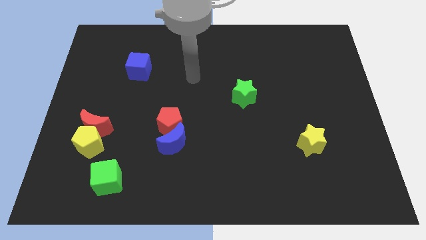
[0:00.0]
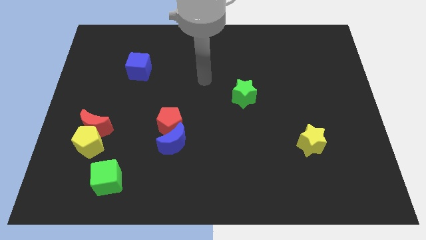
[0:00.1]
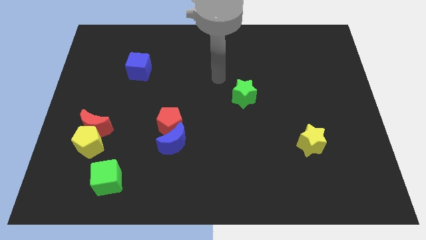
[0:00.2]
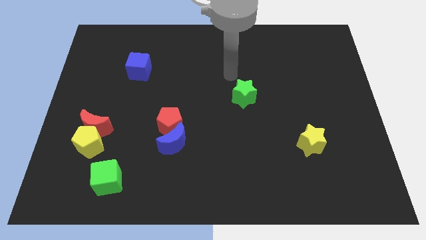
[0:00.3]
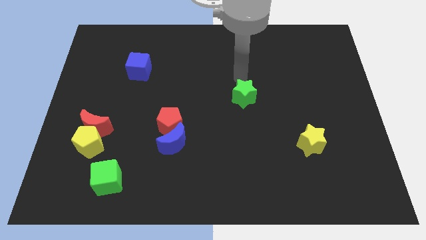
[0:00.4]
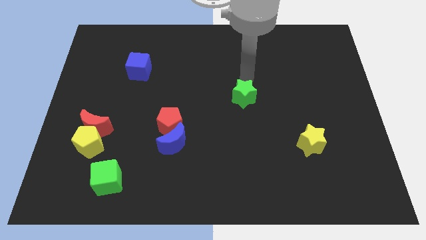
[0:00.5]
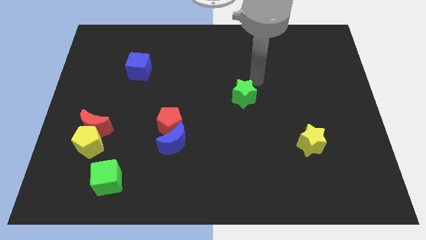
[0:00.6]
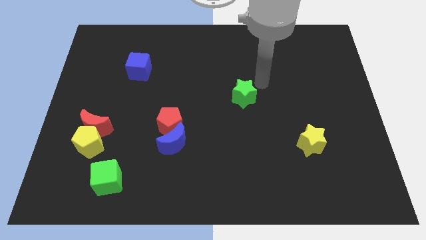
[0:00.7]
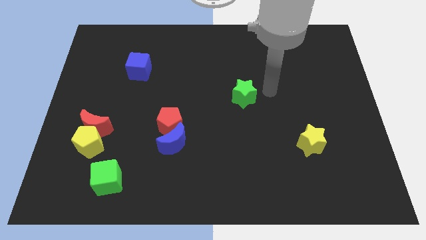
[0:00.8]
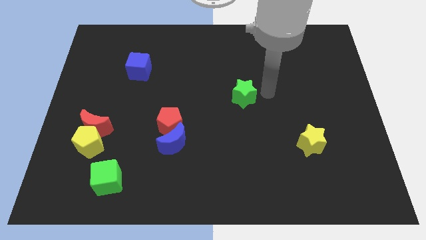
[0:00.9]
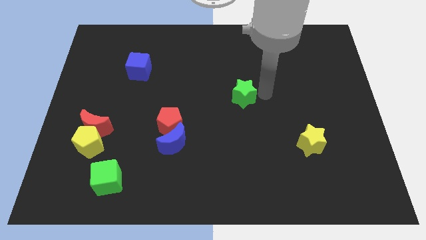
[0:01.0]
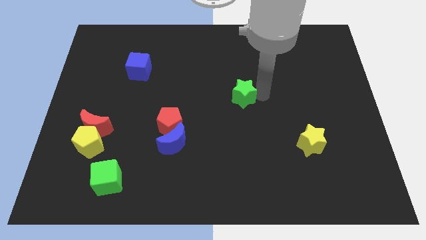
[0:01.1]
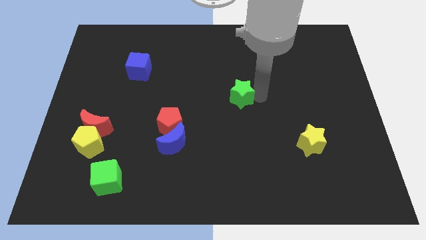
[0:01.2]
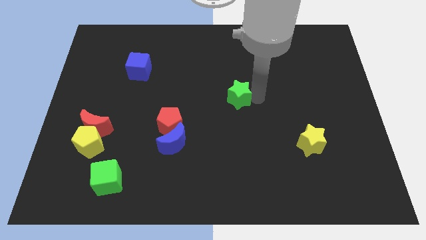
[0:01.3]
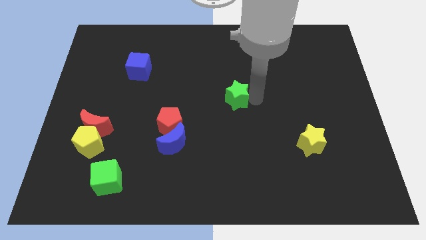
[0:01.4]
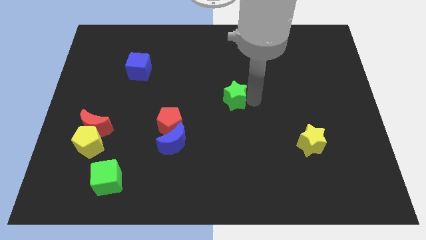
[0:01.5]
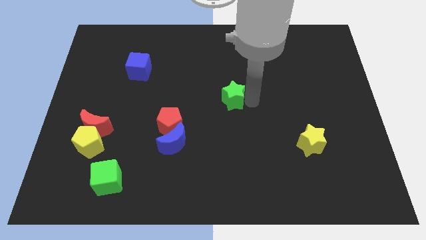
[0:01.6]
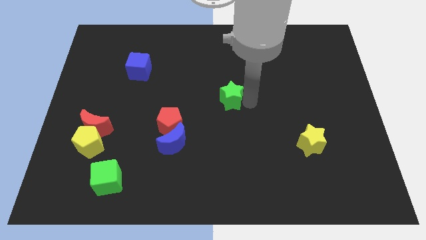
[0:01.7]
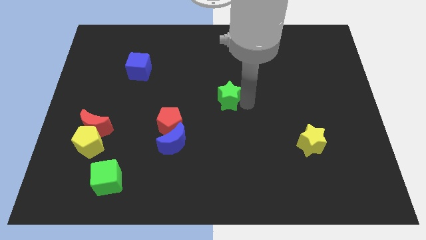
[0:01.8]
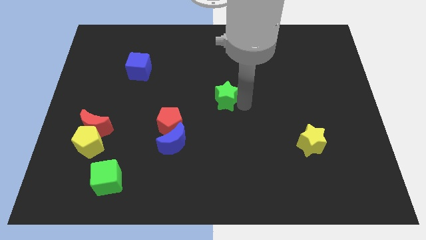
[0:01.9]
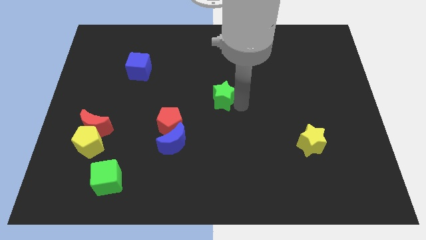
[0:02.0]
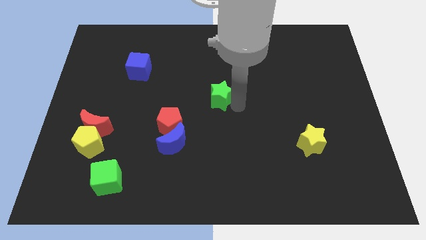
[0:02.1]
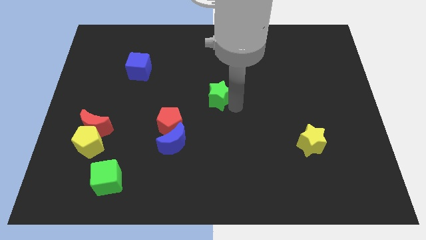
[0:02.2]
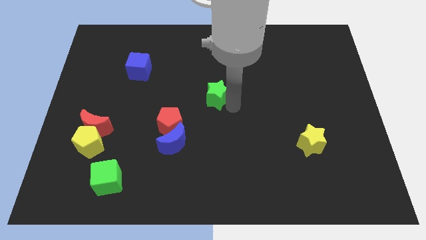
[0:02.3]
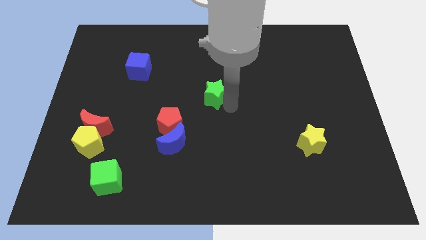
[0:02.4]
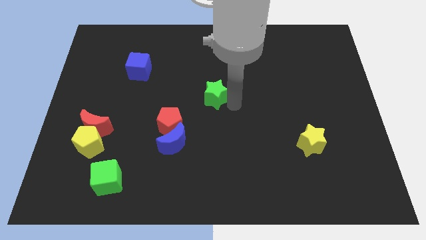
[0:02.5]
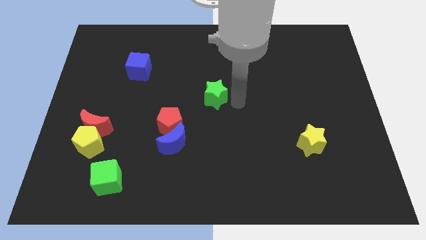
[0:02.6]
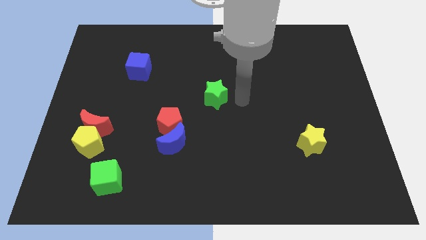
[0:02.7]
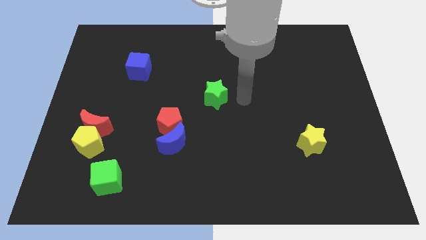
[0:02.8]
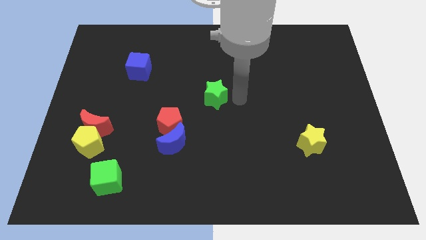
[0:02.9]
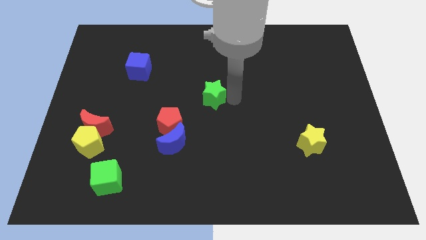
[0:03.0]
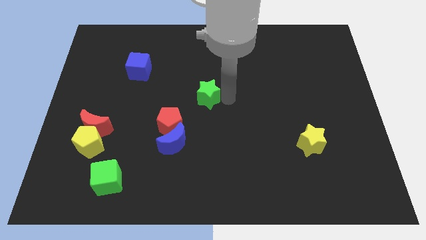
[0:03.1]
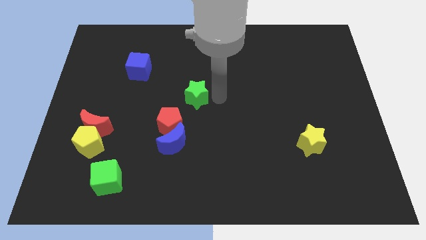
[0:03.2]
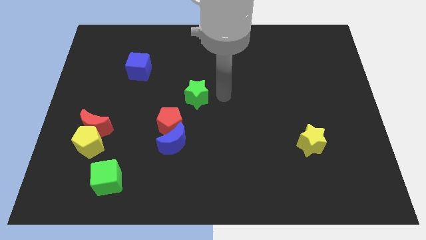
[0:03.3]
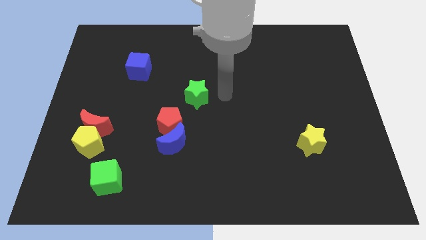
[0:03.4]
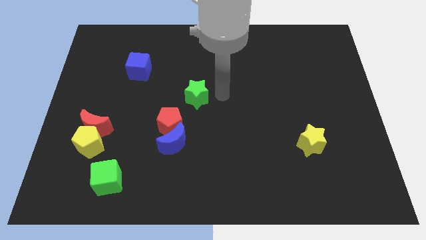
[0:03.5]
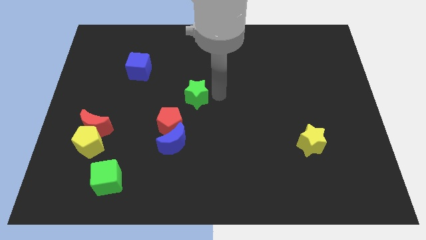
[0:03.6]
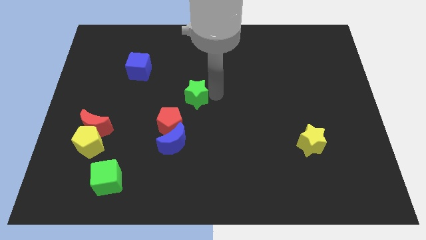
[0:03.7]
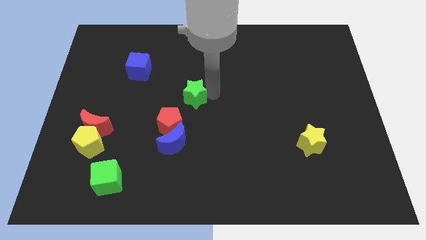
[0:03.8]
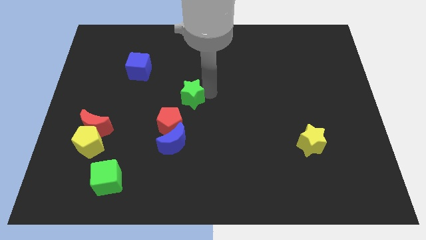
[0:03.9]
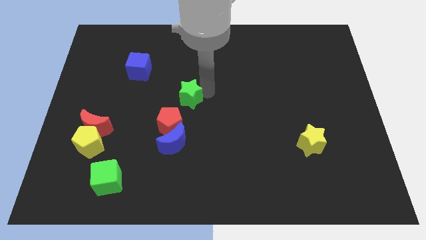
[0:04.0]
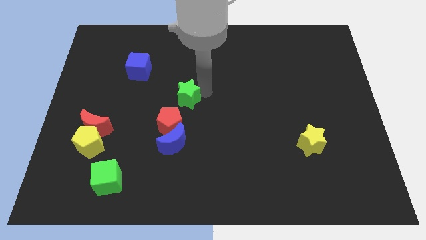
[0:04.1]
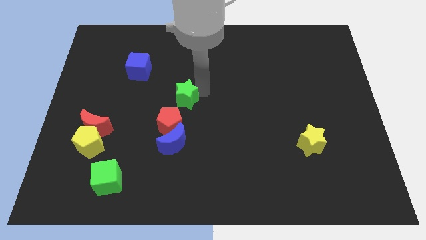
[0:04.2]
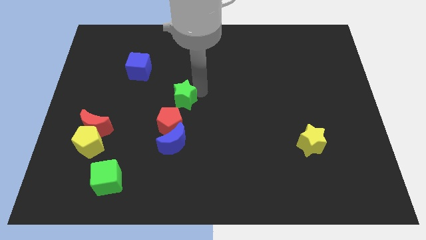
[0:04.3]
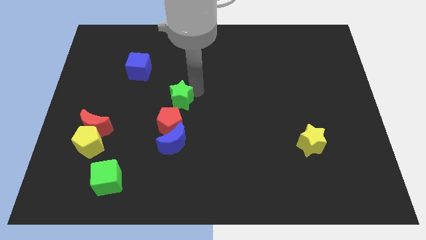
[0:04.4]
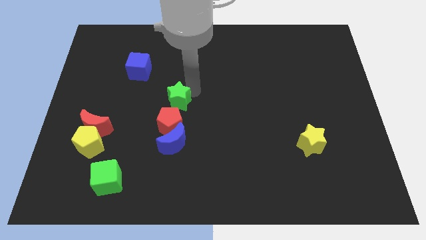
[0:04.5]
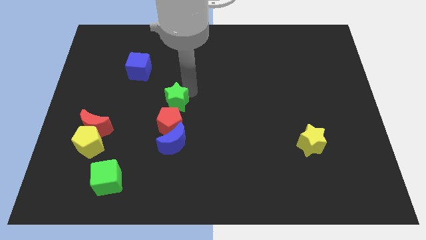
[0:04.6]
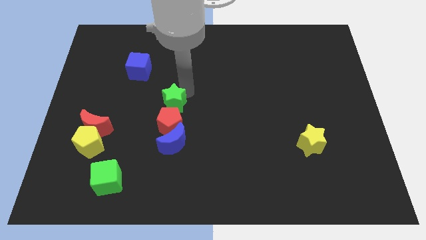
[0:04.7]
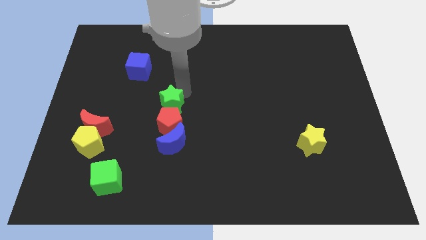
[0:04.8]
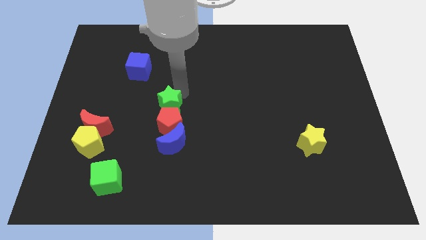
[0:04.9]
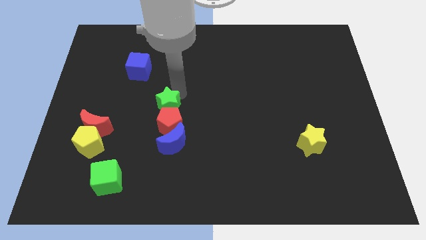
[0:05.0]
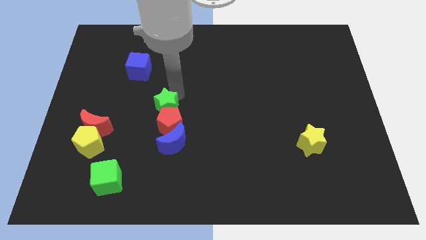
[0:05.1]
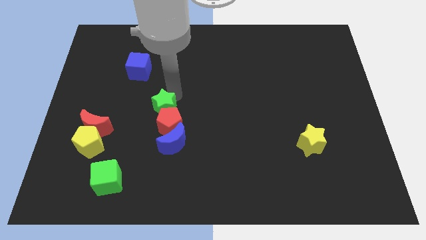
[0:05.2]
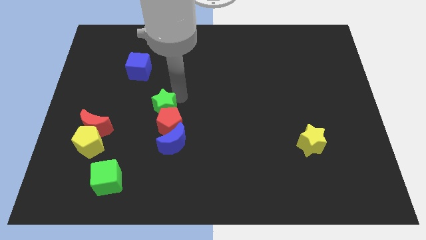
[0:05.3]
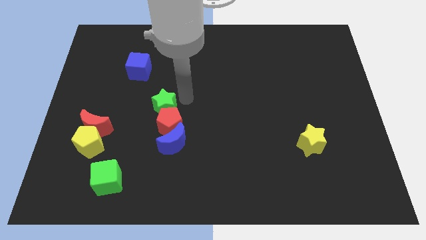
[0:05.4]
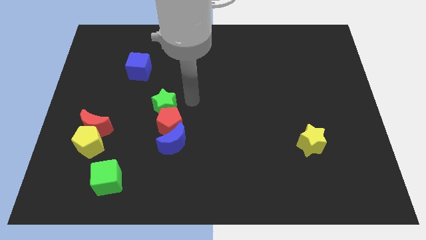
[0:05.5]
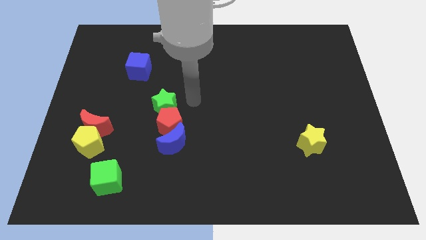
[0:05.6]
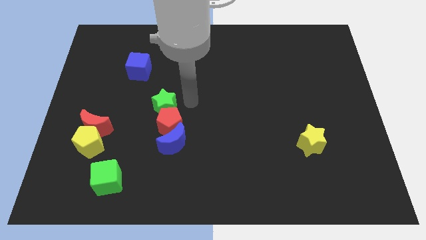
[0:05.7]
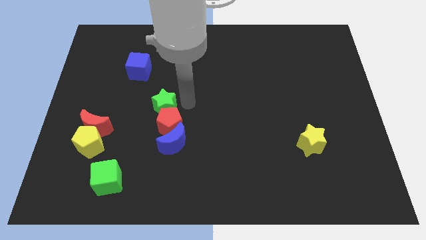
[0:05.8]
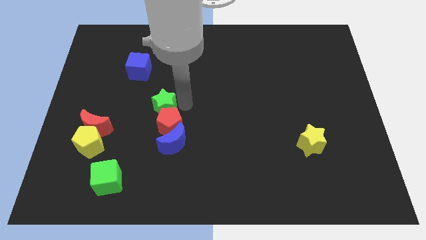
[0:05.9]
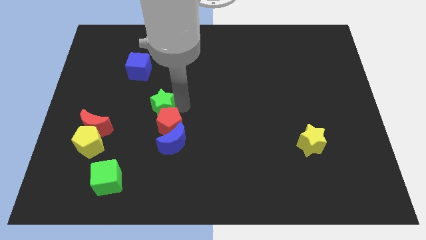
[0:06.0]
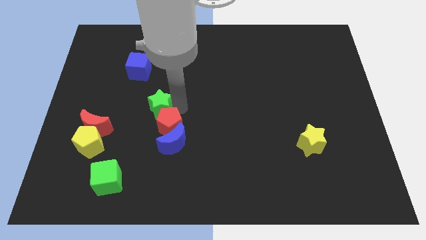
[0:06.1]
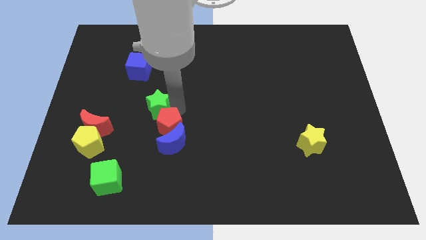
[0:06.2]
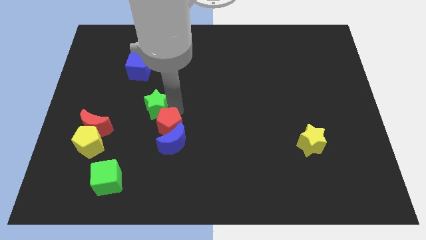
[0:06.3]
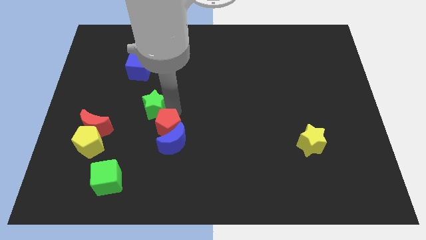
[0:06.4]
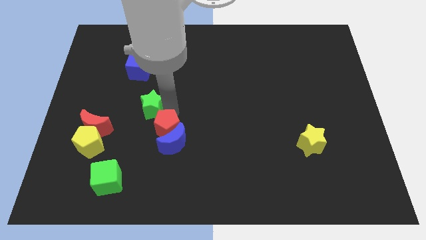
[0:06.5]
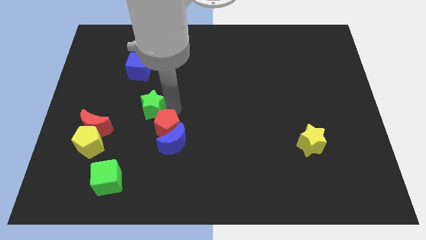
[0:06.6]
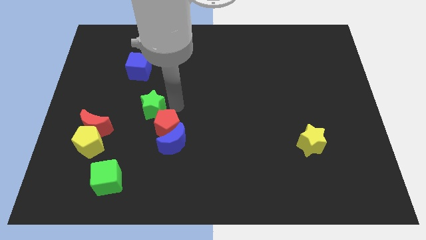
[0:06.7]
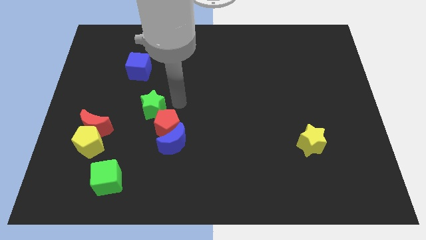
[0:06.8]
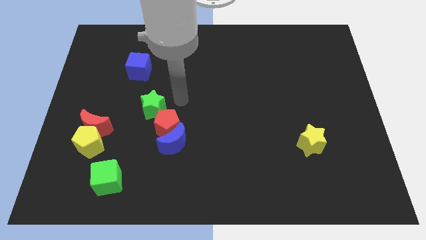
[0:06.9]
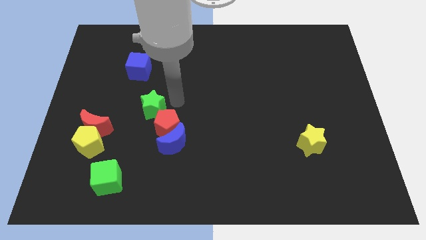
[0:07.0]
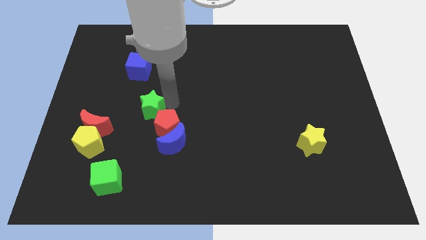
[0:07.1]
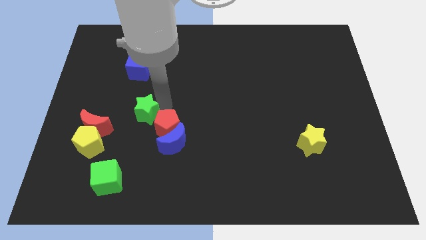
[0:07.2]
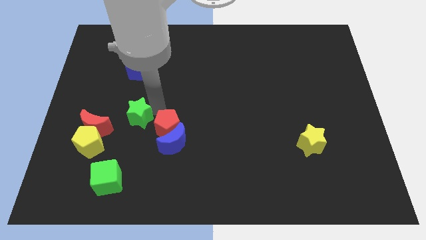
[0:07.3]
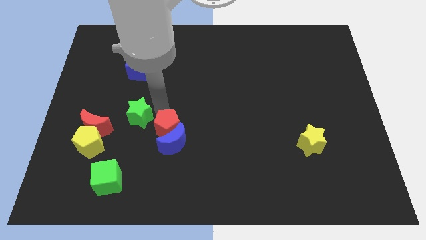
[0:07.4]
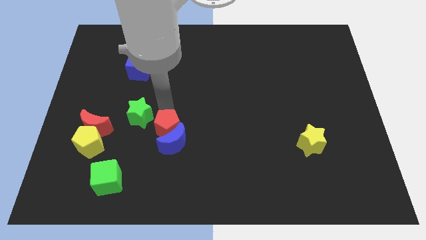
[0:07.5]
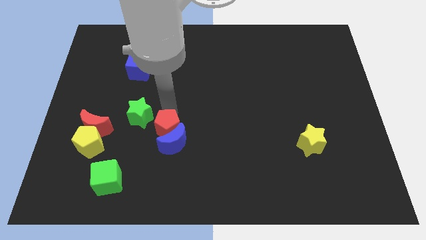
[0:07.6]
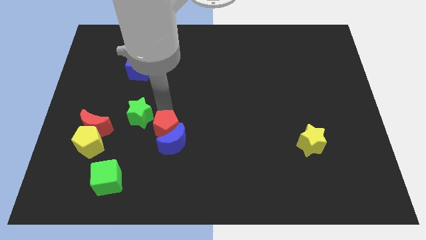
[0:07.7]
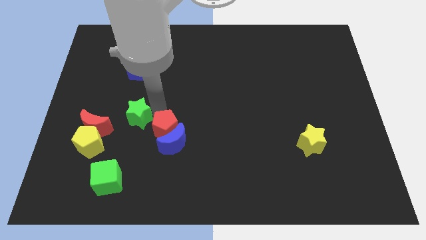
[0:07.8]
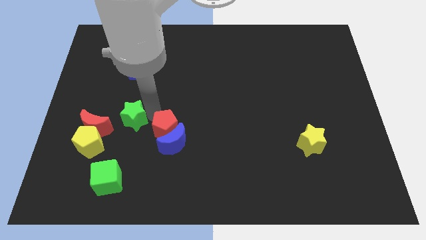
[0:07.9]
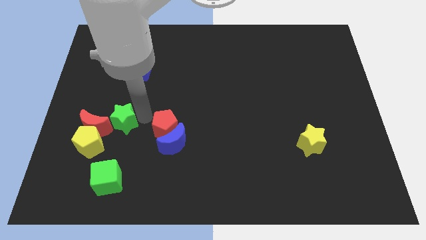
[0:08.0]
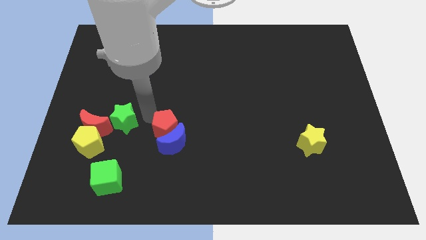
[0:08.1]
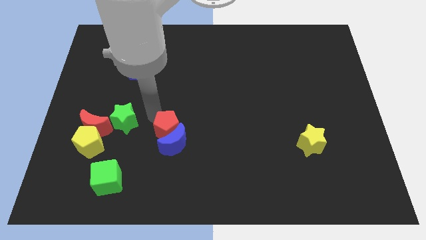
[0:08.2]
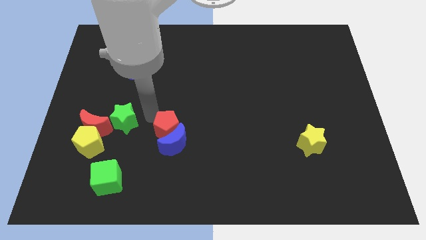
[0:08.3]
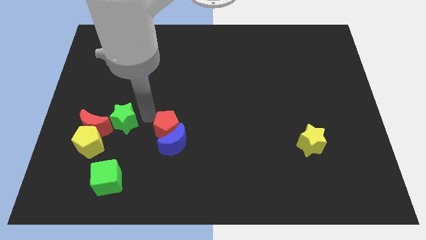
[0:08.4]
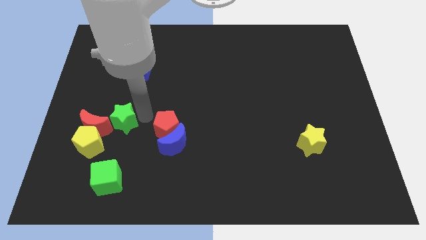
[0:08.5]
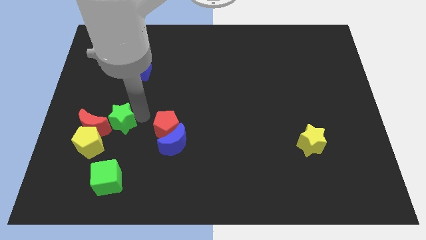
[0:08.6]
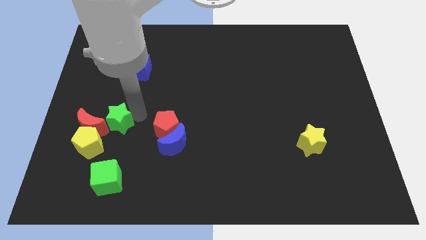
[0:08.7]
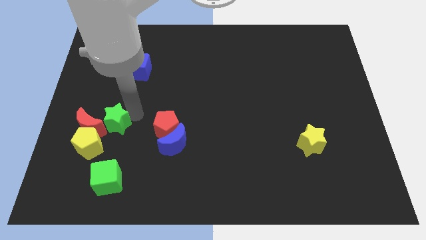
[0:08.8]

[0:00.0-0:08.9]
push the green star towards the red moon
